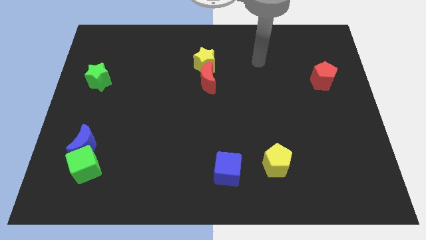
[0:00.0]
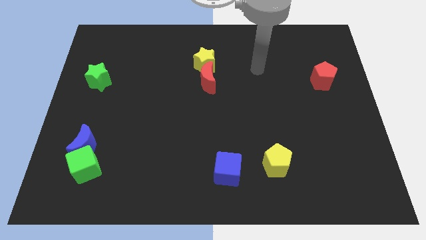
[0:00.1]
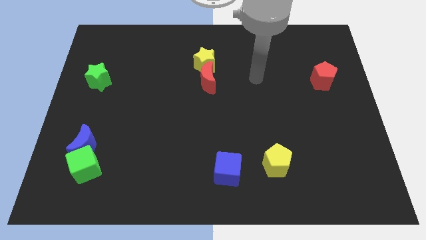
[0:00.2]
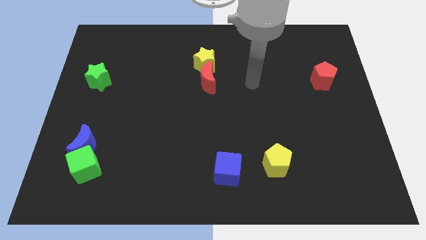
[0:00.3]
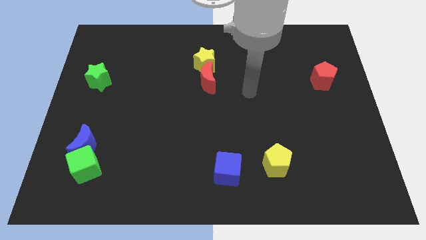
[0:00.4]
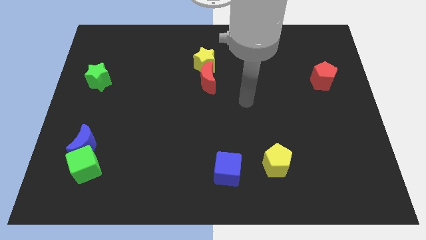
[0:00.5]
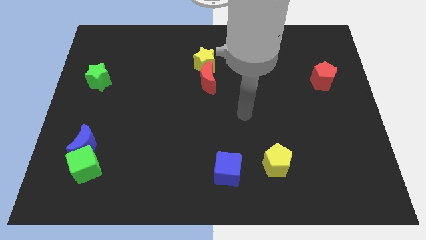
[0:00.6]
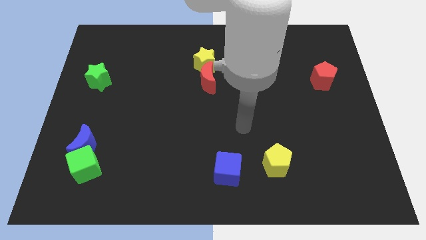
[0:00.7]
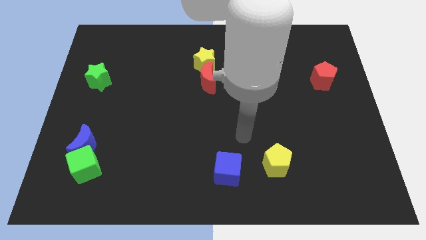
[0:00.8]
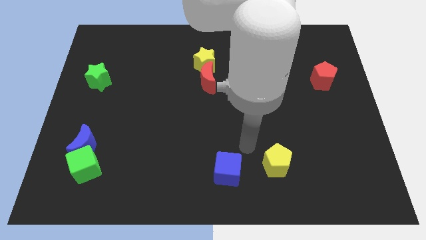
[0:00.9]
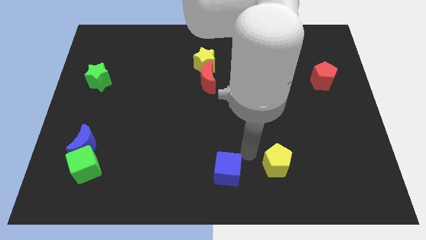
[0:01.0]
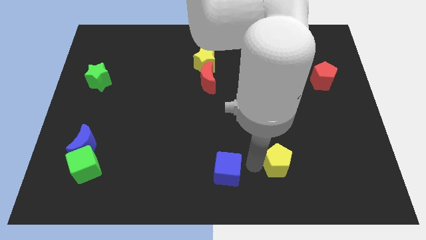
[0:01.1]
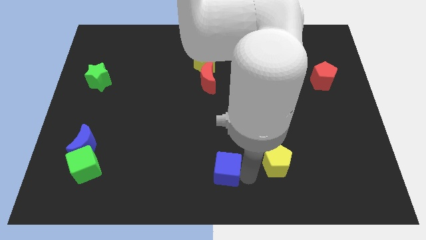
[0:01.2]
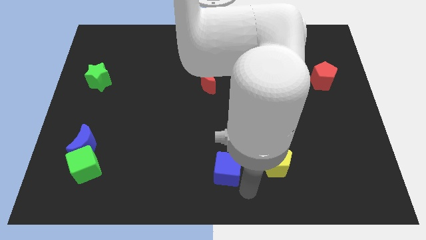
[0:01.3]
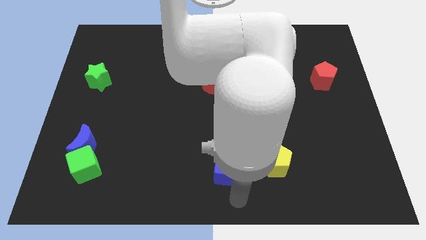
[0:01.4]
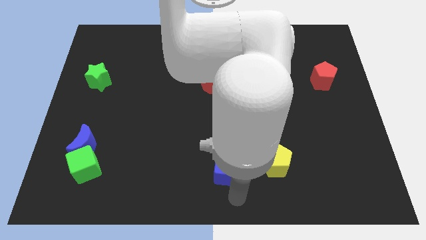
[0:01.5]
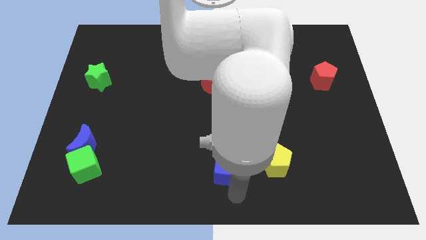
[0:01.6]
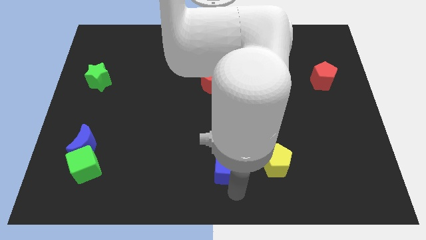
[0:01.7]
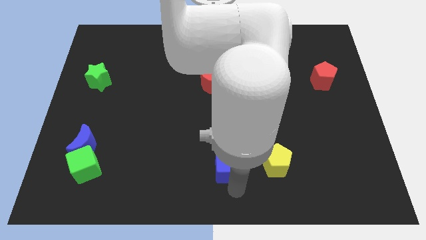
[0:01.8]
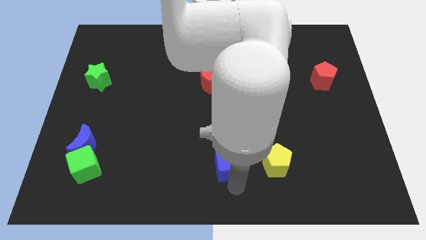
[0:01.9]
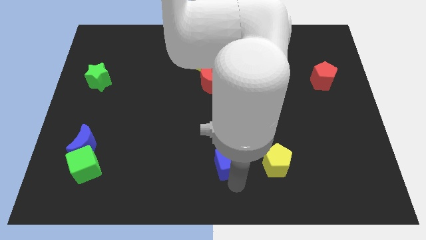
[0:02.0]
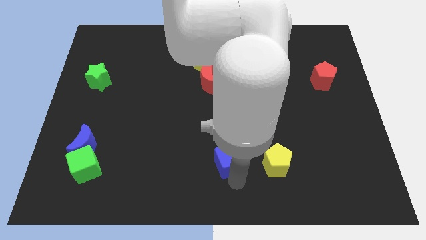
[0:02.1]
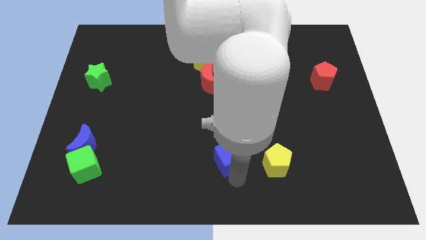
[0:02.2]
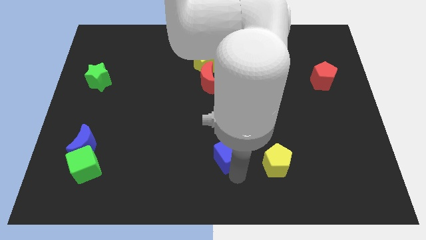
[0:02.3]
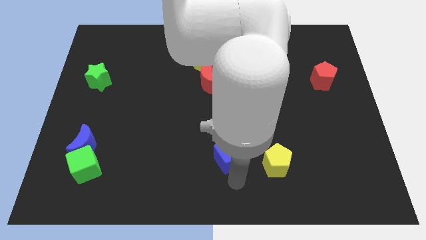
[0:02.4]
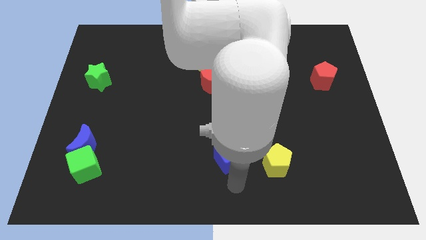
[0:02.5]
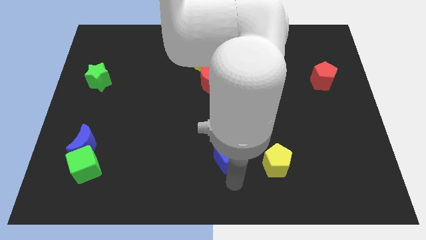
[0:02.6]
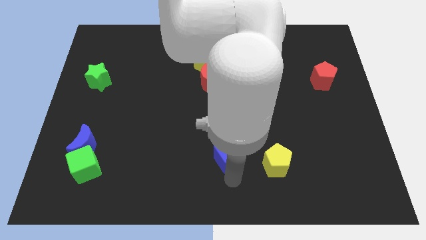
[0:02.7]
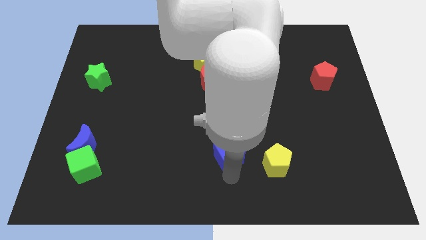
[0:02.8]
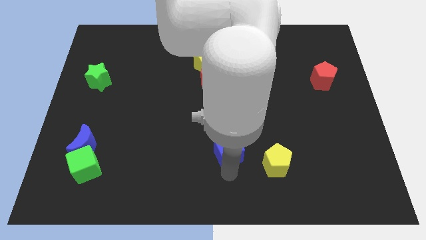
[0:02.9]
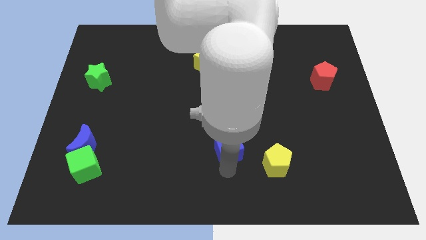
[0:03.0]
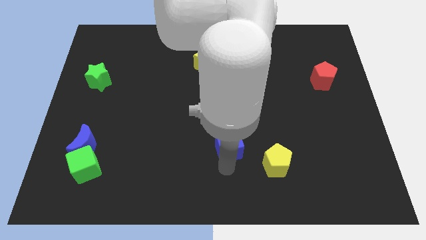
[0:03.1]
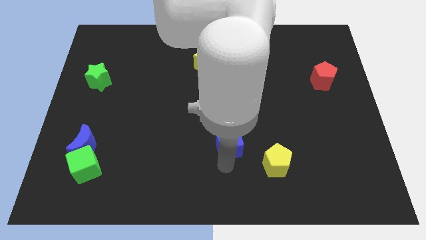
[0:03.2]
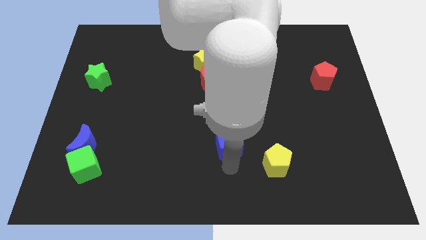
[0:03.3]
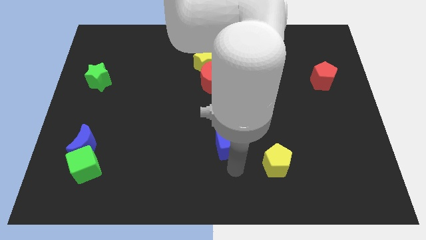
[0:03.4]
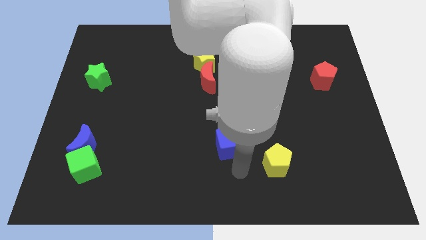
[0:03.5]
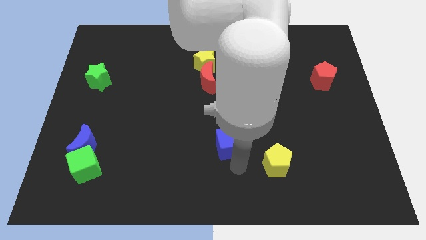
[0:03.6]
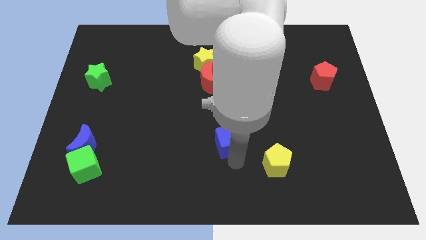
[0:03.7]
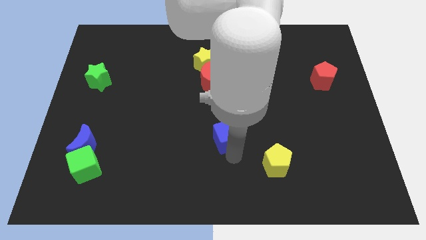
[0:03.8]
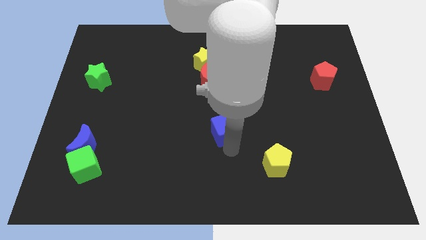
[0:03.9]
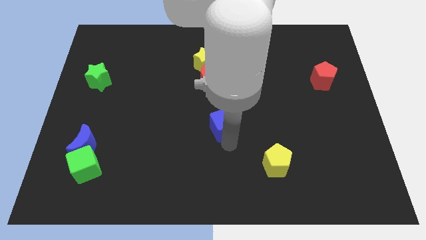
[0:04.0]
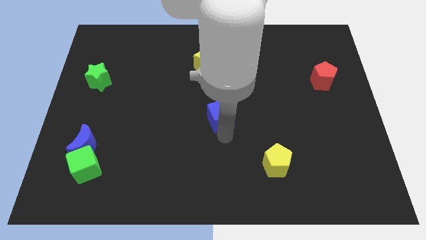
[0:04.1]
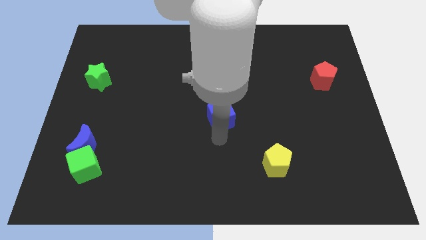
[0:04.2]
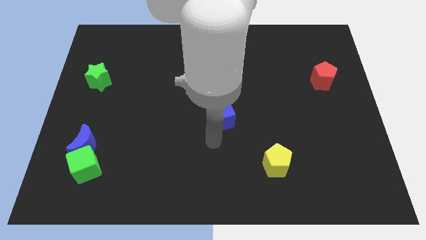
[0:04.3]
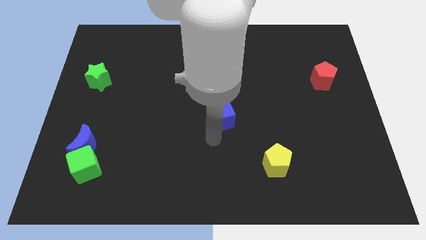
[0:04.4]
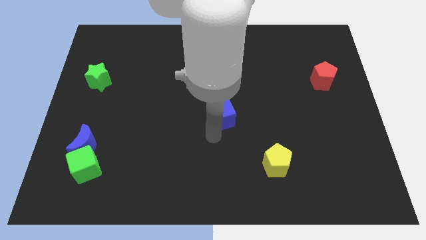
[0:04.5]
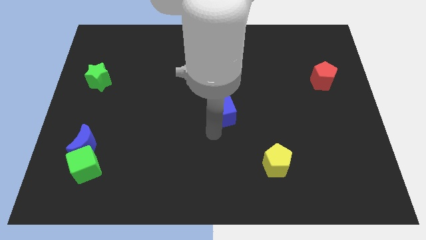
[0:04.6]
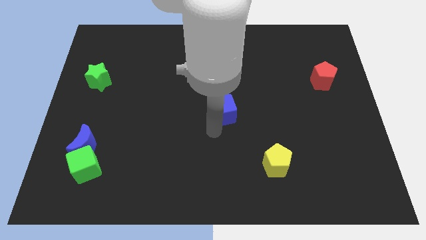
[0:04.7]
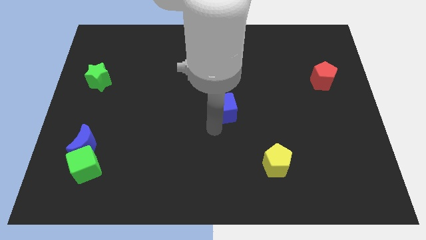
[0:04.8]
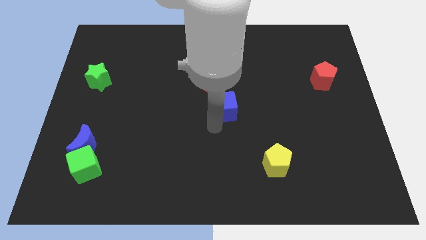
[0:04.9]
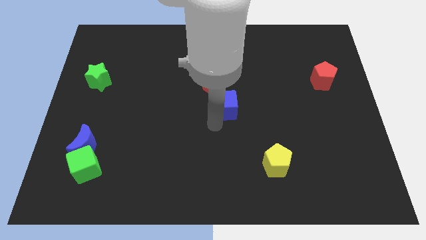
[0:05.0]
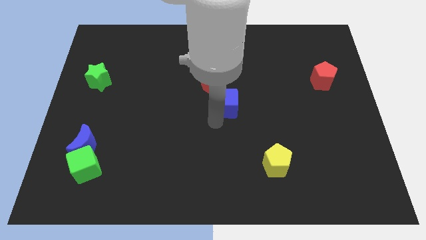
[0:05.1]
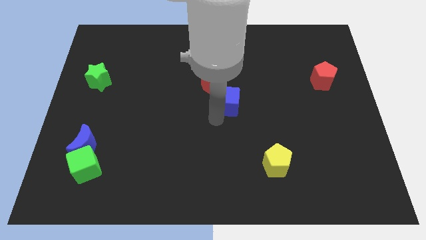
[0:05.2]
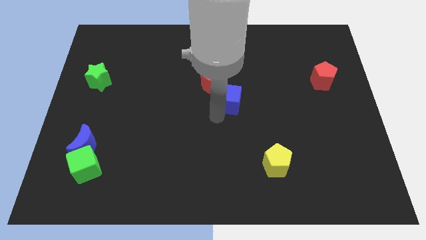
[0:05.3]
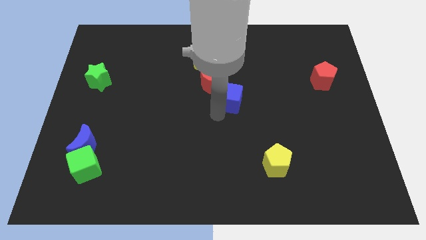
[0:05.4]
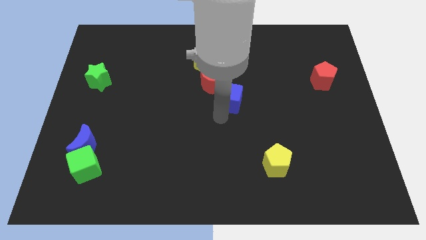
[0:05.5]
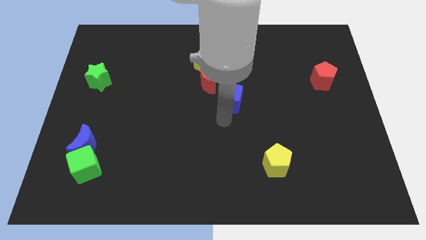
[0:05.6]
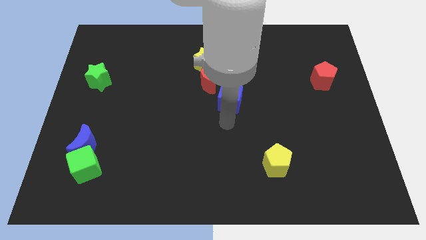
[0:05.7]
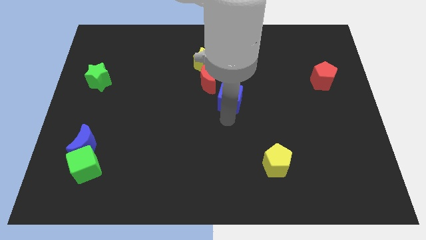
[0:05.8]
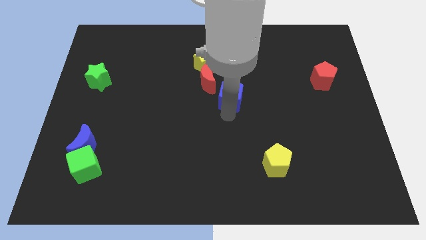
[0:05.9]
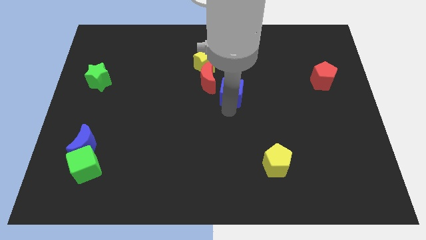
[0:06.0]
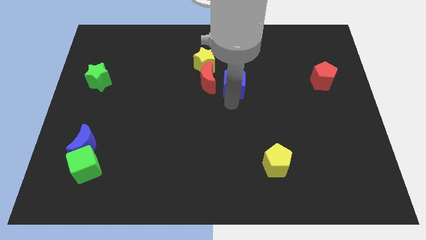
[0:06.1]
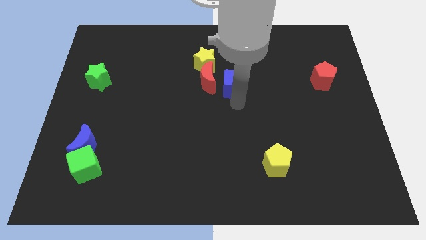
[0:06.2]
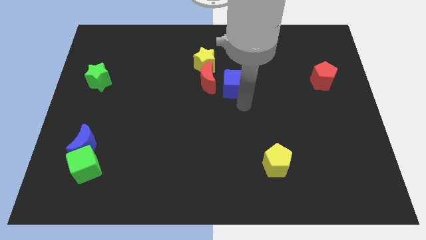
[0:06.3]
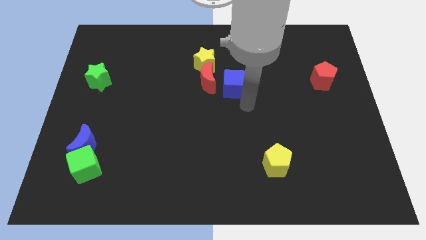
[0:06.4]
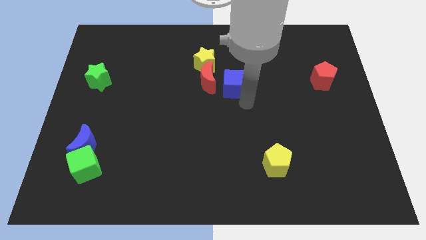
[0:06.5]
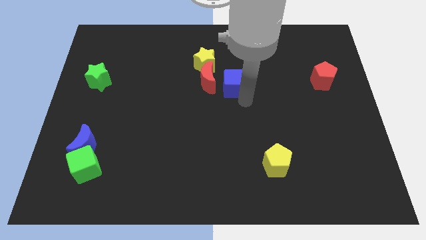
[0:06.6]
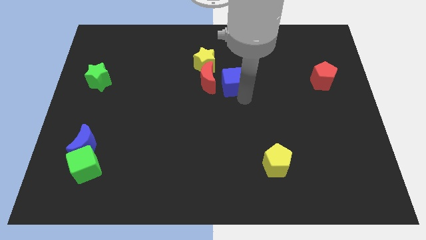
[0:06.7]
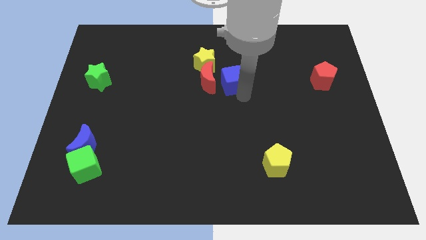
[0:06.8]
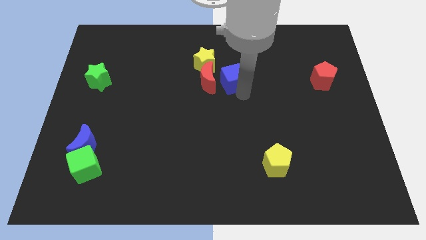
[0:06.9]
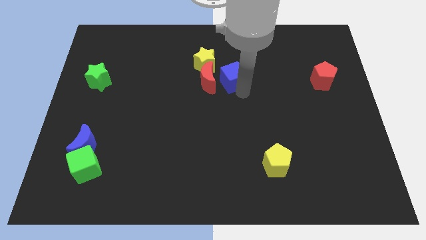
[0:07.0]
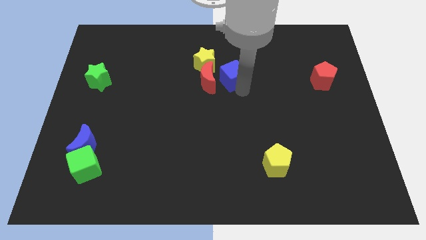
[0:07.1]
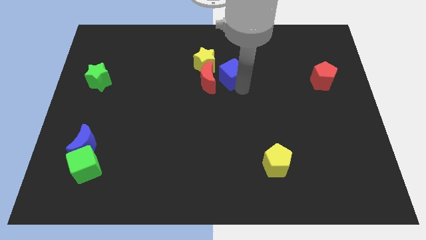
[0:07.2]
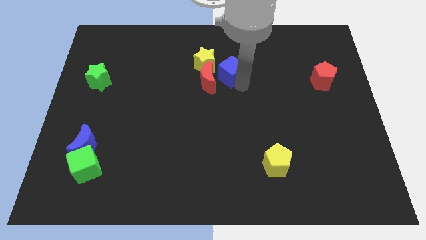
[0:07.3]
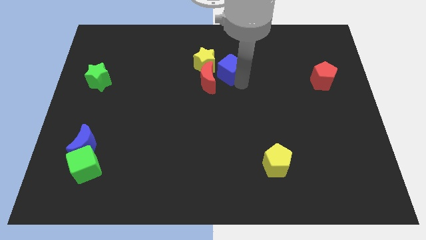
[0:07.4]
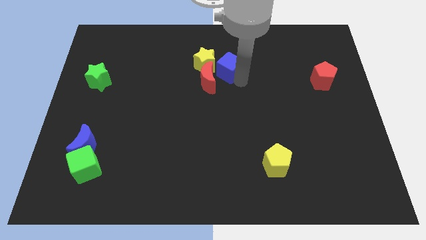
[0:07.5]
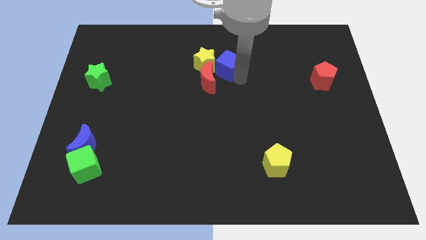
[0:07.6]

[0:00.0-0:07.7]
put the blue cube to the yellow star
